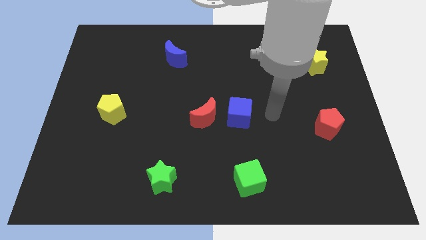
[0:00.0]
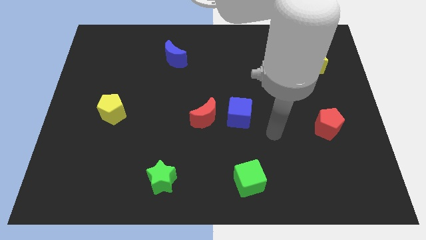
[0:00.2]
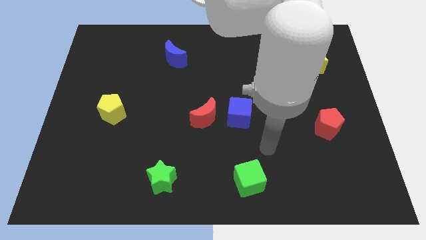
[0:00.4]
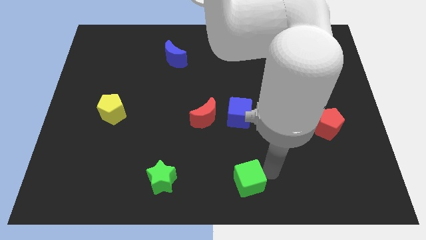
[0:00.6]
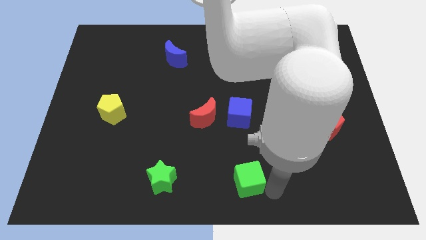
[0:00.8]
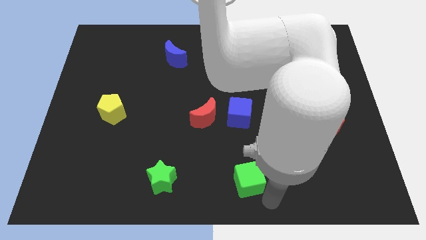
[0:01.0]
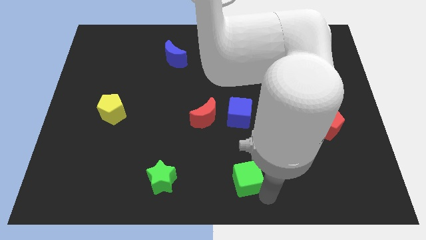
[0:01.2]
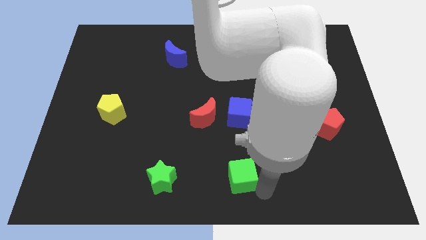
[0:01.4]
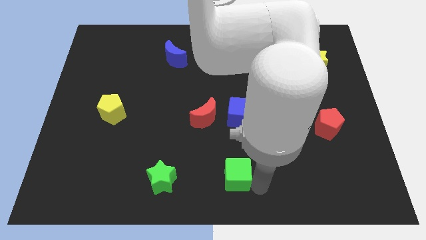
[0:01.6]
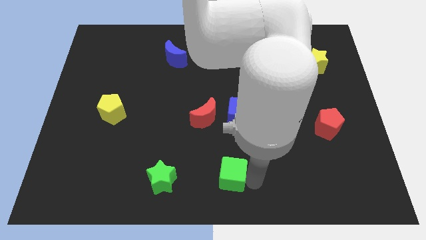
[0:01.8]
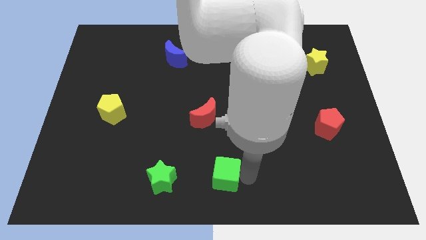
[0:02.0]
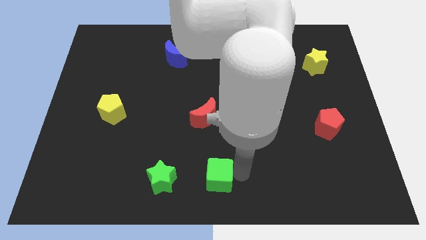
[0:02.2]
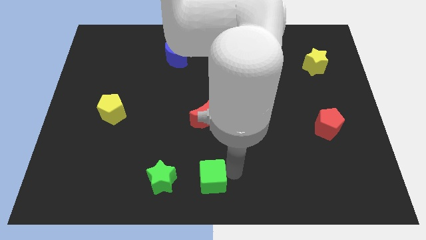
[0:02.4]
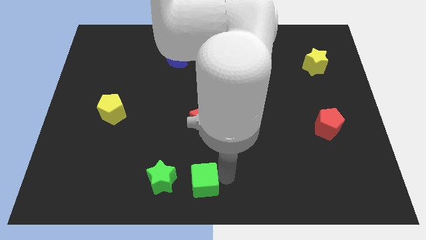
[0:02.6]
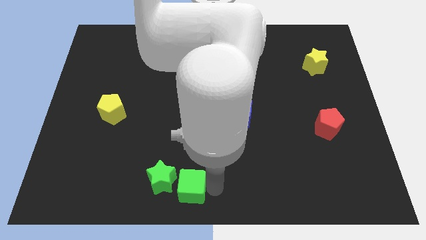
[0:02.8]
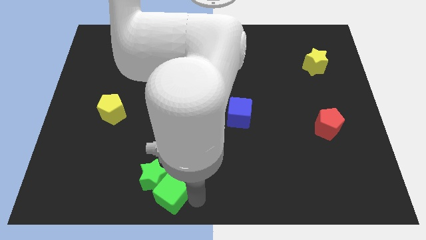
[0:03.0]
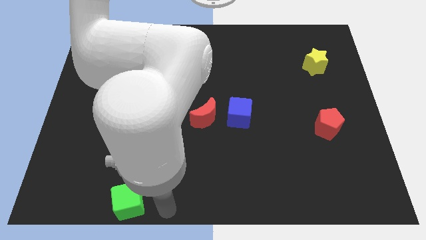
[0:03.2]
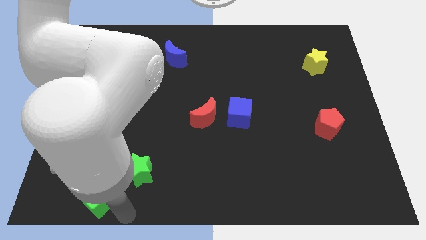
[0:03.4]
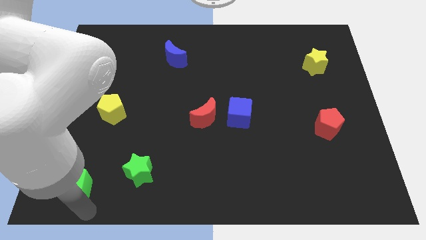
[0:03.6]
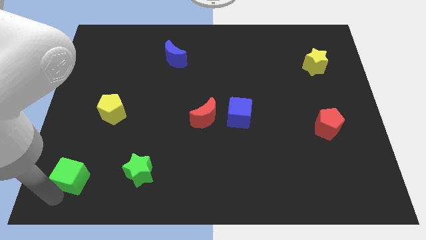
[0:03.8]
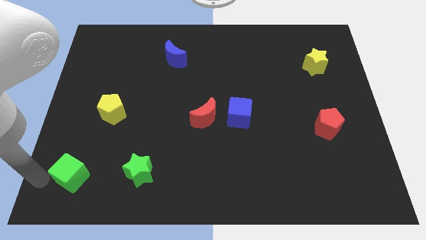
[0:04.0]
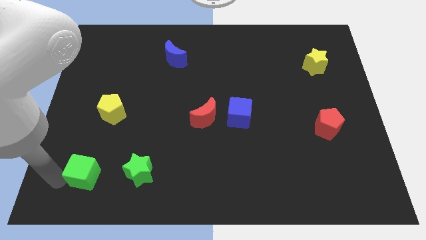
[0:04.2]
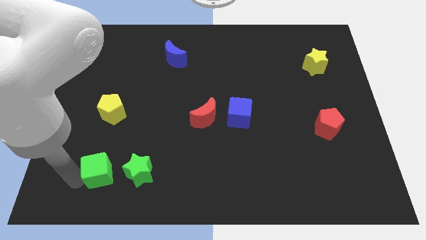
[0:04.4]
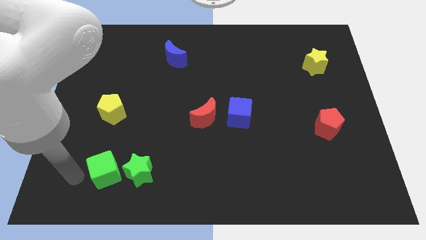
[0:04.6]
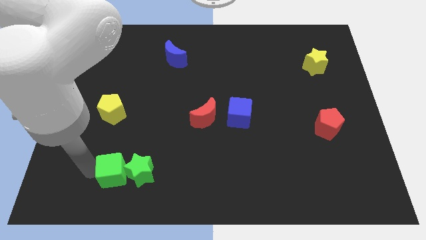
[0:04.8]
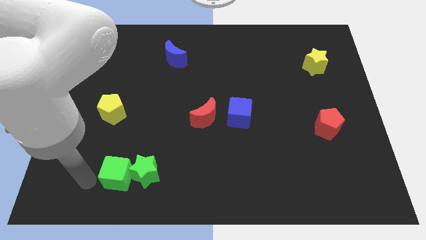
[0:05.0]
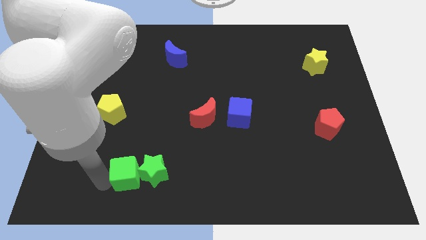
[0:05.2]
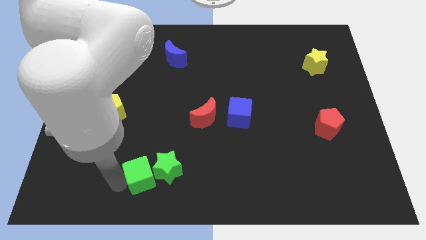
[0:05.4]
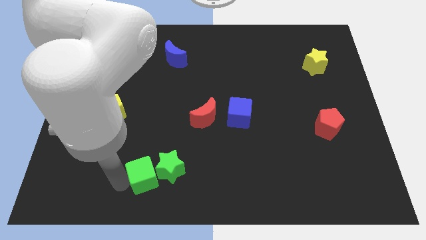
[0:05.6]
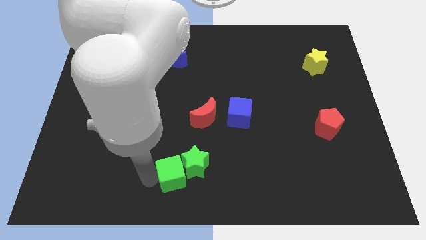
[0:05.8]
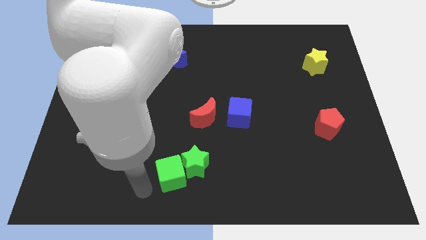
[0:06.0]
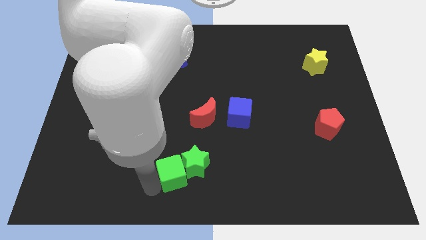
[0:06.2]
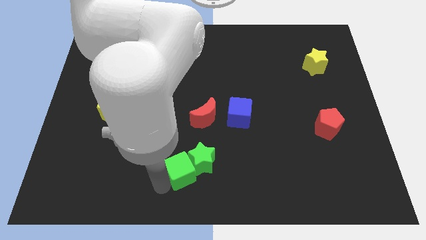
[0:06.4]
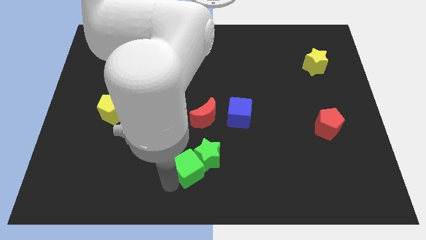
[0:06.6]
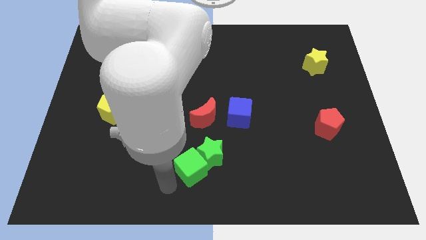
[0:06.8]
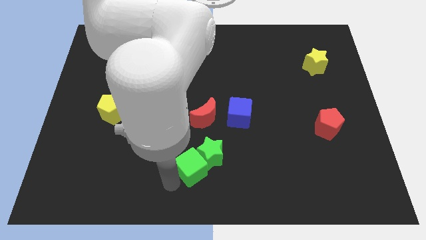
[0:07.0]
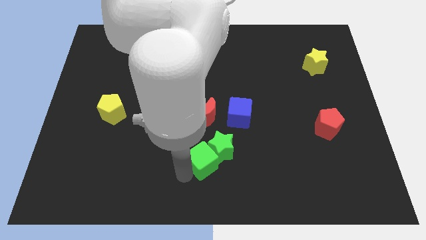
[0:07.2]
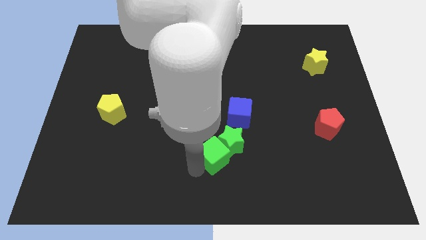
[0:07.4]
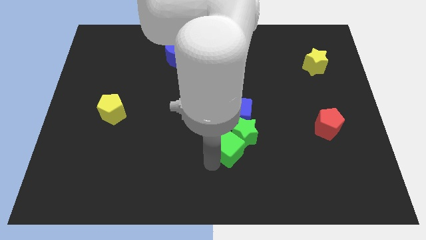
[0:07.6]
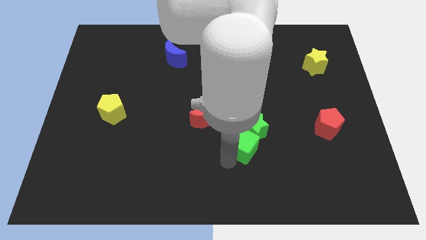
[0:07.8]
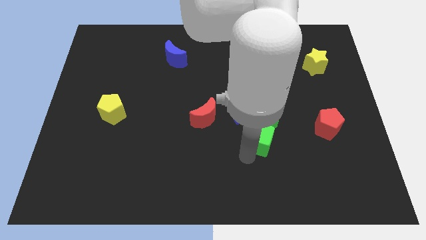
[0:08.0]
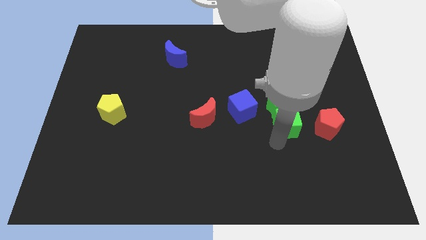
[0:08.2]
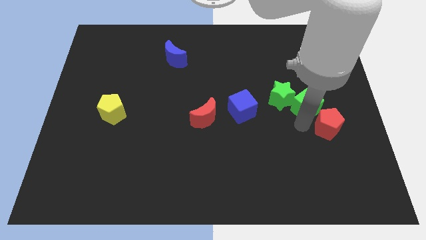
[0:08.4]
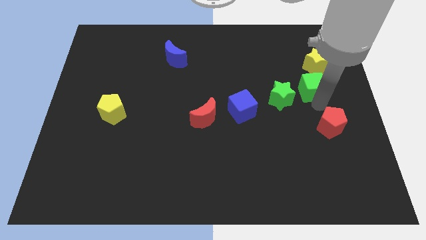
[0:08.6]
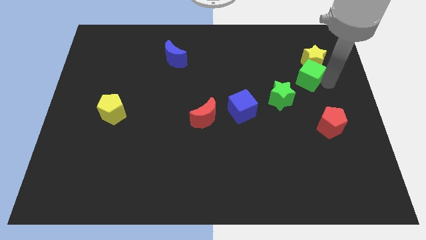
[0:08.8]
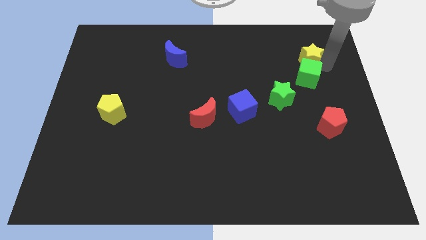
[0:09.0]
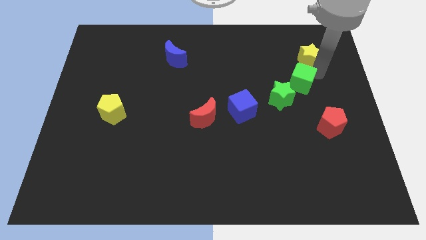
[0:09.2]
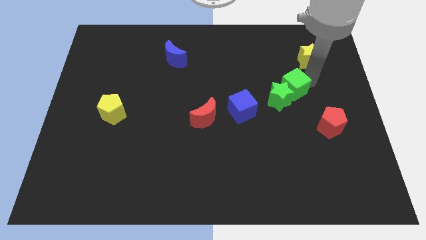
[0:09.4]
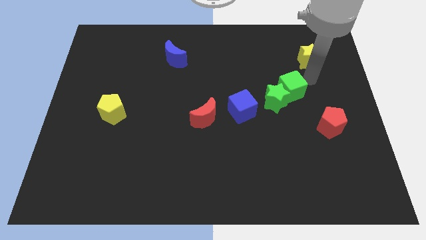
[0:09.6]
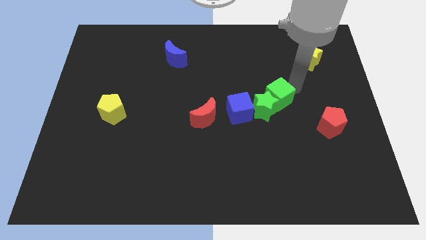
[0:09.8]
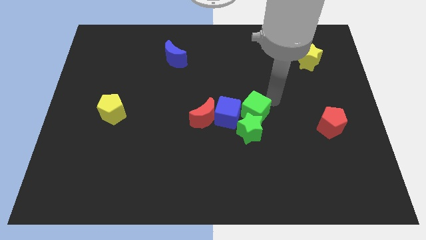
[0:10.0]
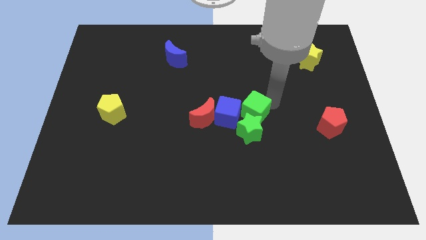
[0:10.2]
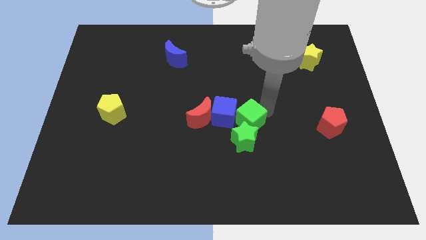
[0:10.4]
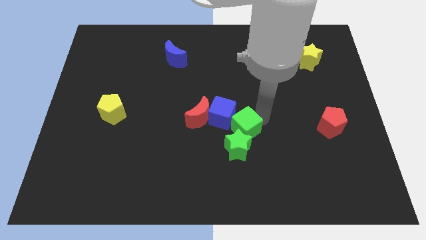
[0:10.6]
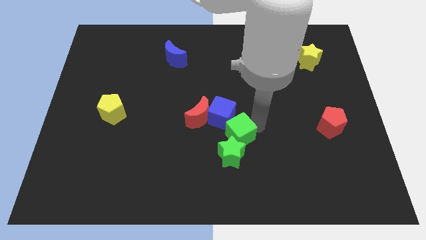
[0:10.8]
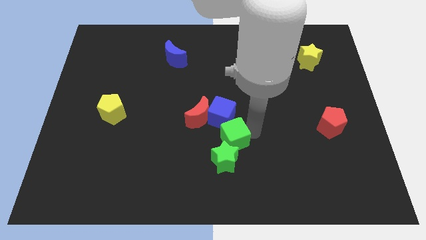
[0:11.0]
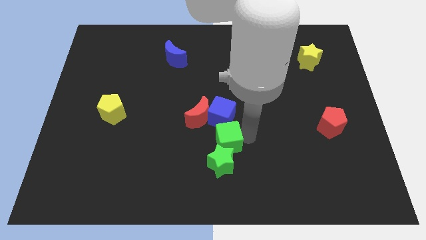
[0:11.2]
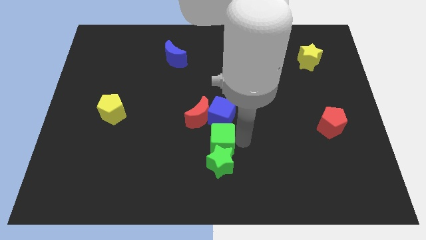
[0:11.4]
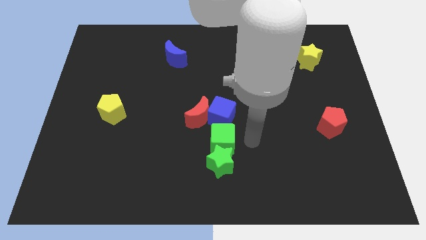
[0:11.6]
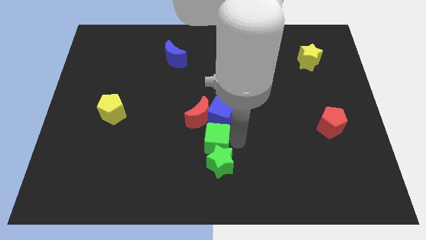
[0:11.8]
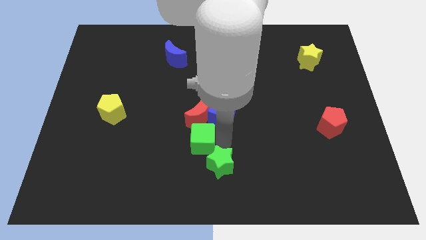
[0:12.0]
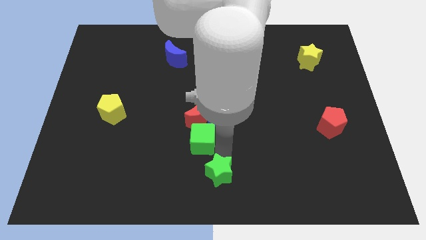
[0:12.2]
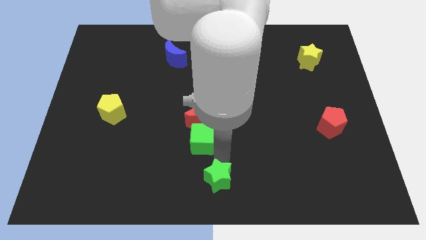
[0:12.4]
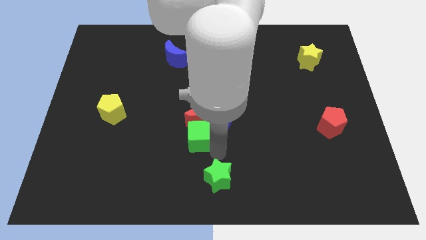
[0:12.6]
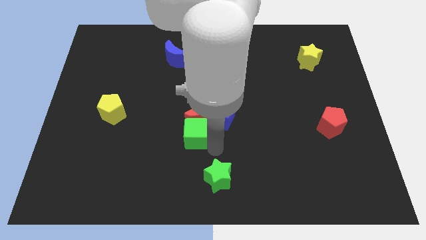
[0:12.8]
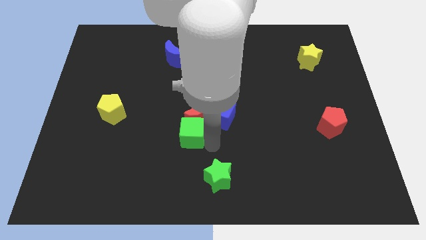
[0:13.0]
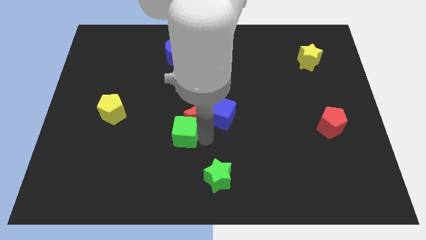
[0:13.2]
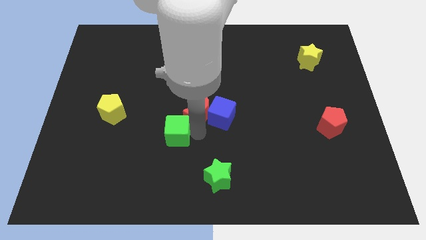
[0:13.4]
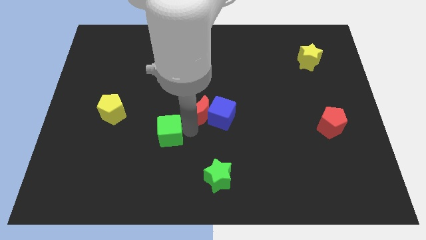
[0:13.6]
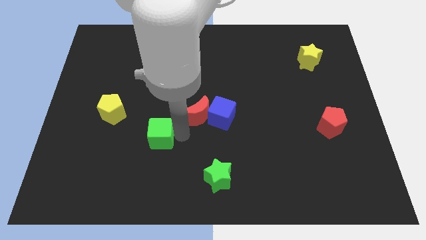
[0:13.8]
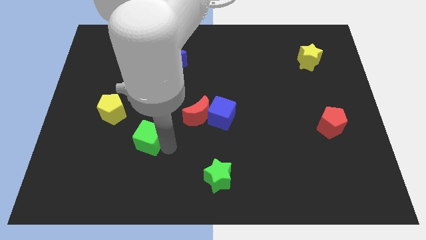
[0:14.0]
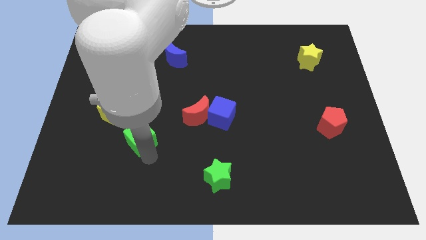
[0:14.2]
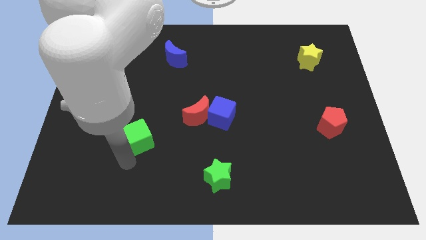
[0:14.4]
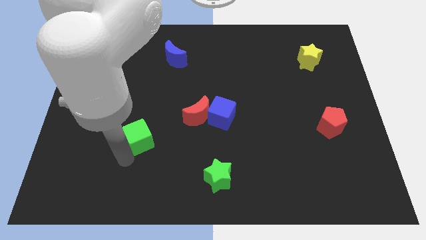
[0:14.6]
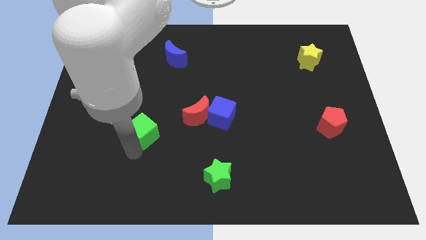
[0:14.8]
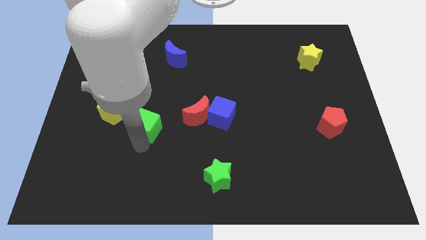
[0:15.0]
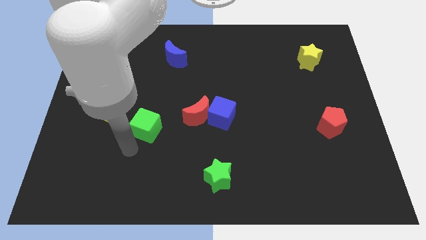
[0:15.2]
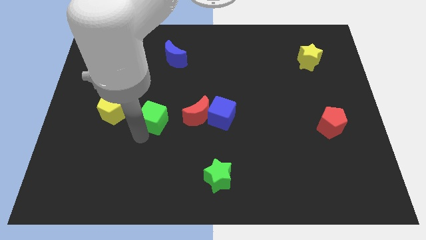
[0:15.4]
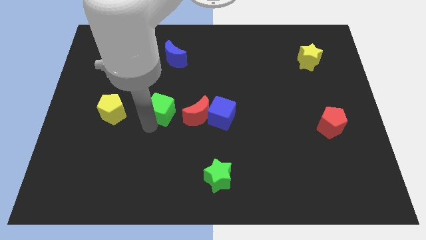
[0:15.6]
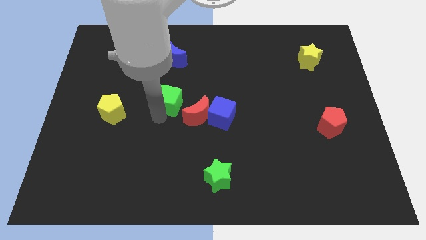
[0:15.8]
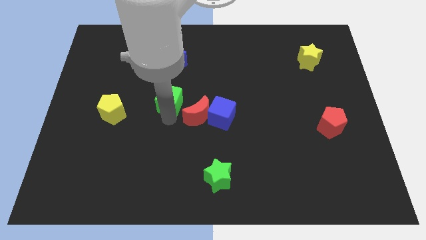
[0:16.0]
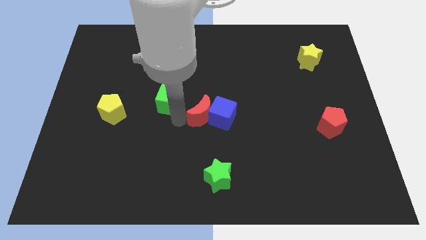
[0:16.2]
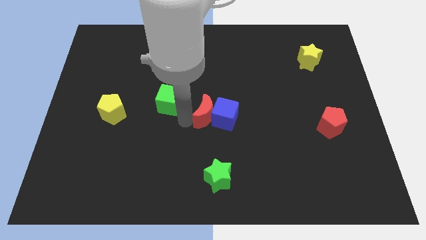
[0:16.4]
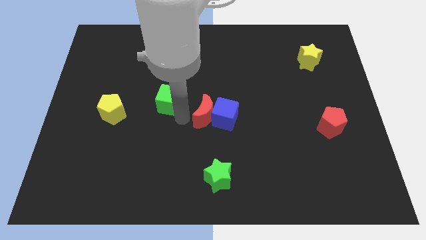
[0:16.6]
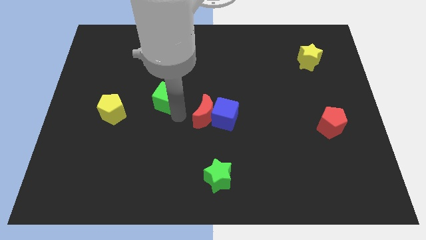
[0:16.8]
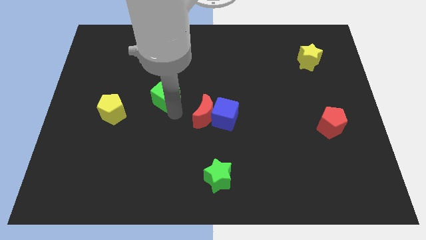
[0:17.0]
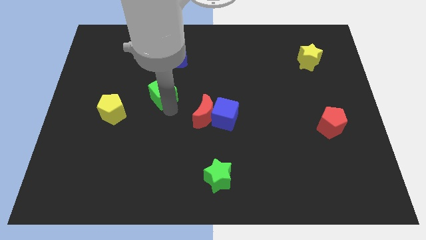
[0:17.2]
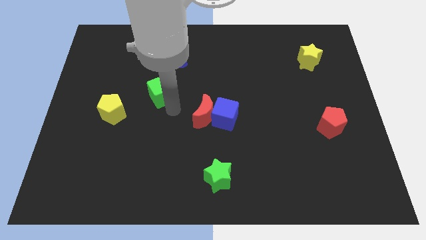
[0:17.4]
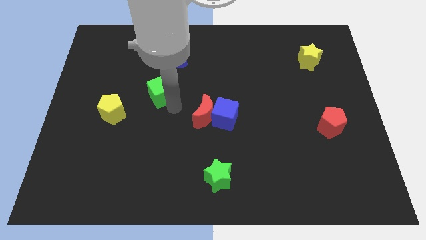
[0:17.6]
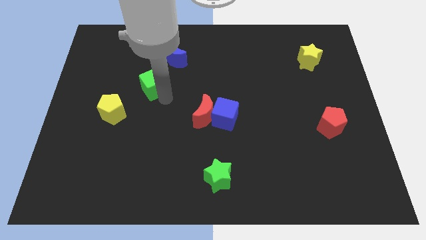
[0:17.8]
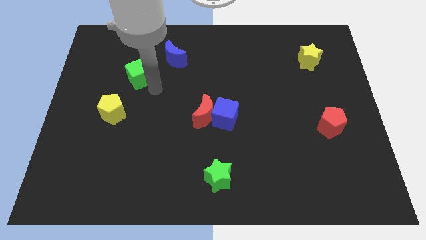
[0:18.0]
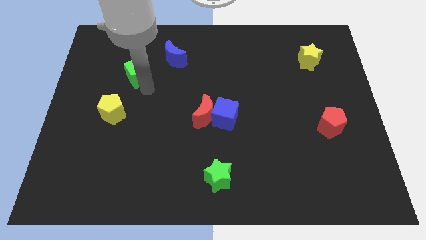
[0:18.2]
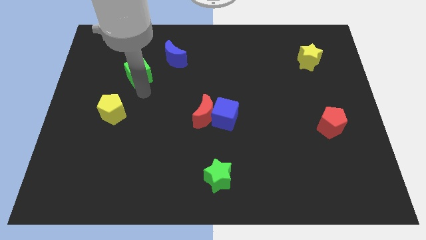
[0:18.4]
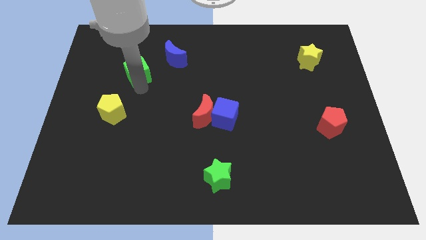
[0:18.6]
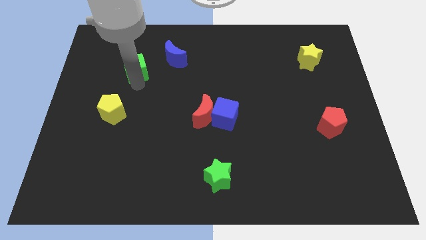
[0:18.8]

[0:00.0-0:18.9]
put the green cube just left of the blue moon
